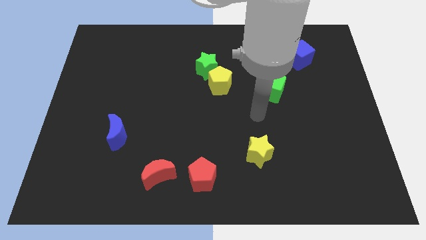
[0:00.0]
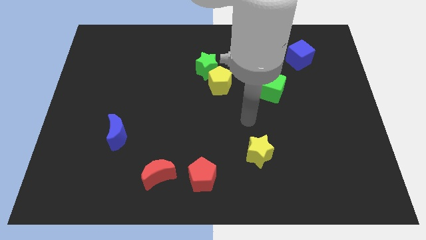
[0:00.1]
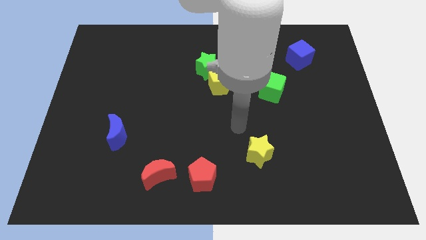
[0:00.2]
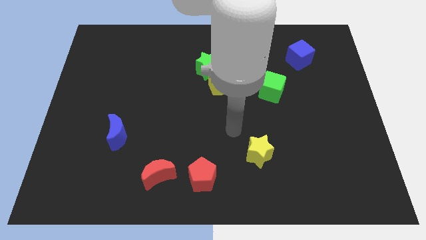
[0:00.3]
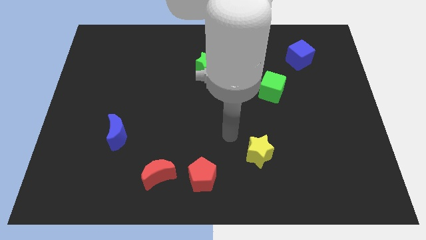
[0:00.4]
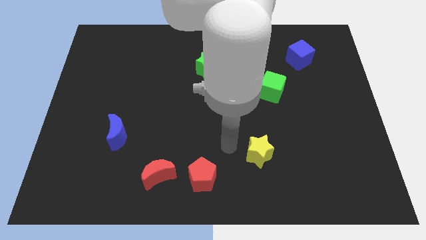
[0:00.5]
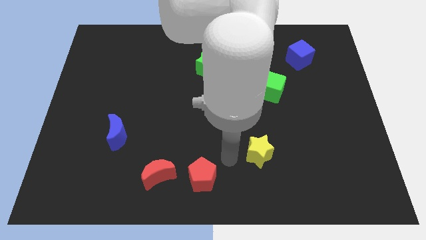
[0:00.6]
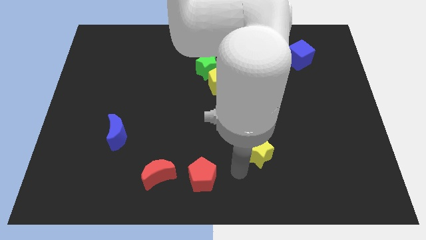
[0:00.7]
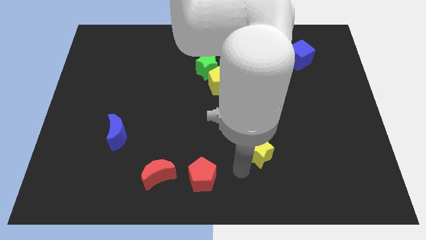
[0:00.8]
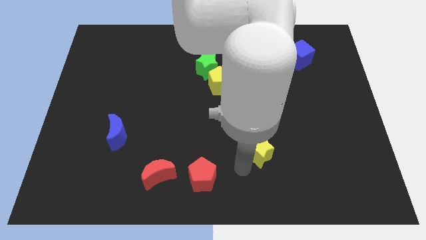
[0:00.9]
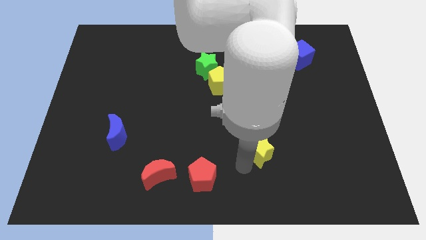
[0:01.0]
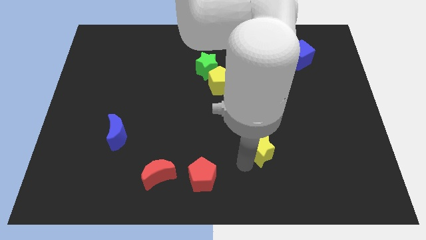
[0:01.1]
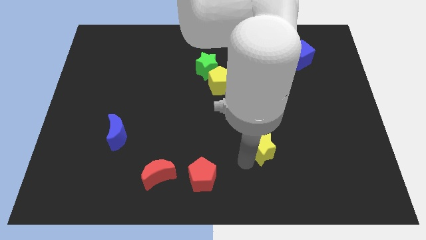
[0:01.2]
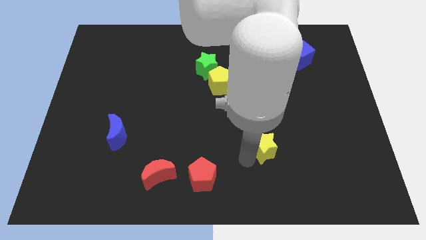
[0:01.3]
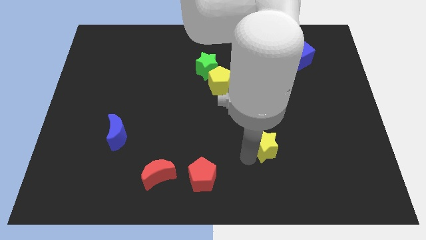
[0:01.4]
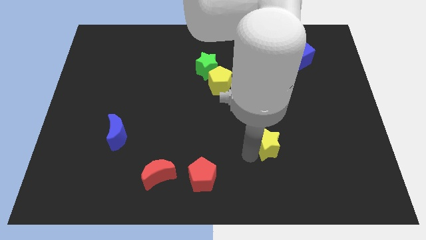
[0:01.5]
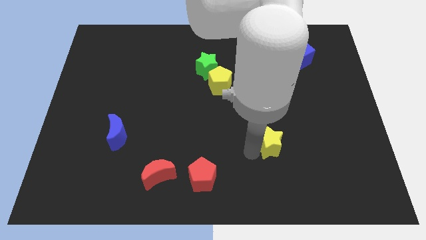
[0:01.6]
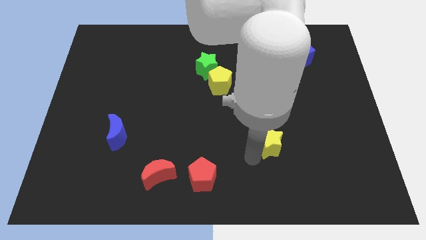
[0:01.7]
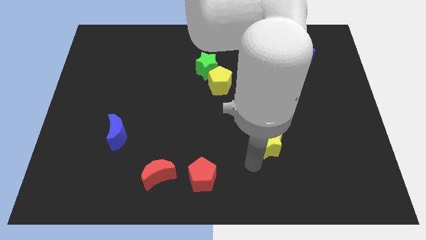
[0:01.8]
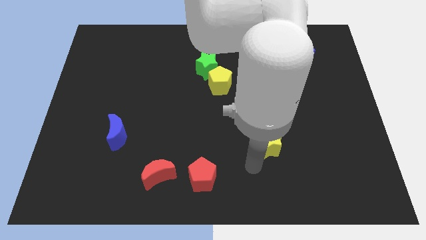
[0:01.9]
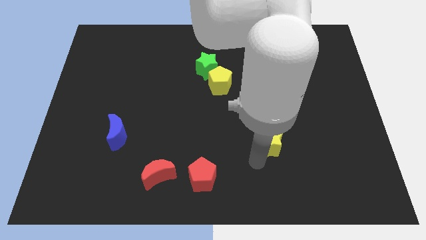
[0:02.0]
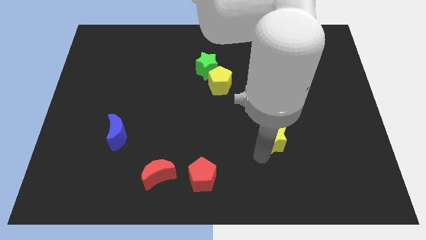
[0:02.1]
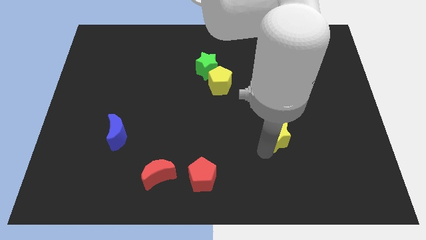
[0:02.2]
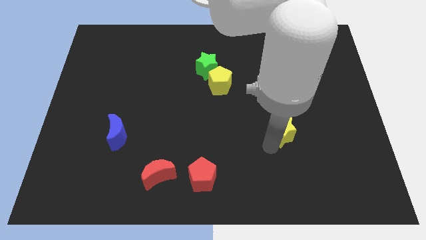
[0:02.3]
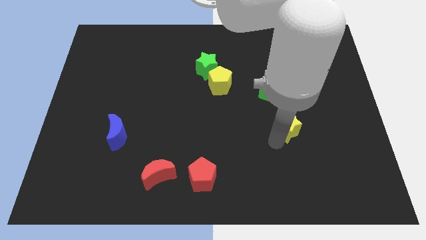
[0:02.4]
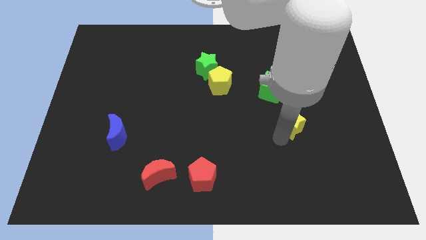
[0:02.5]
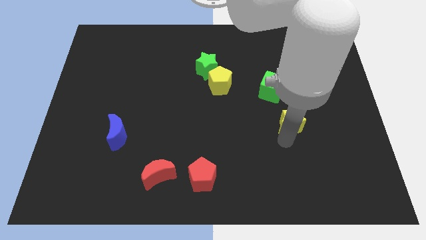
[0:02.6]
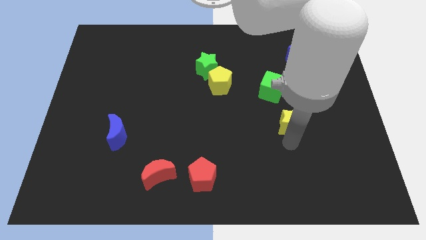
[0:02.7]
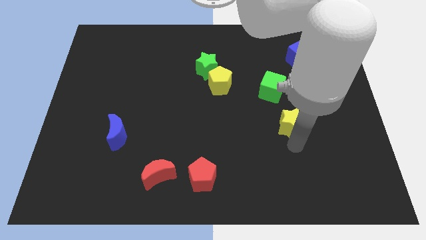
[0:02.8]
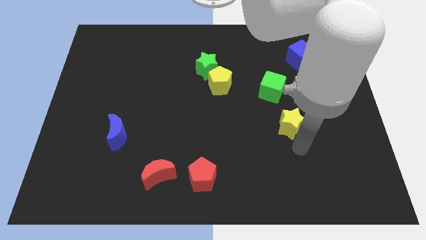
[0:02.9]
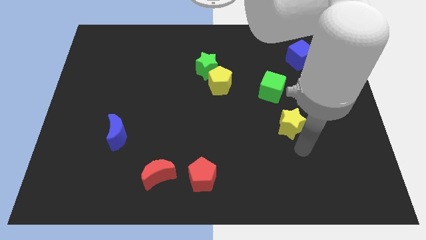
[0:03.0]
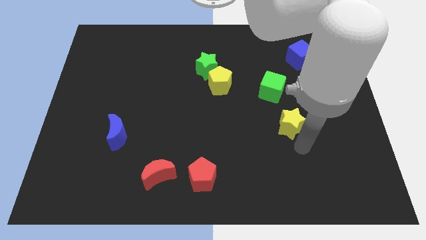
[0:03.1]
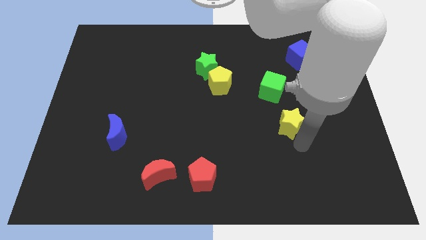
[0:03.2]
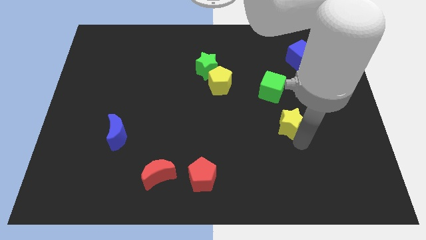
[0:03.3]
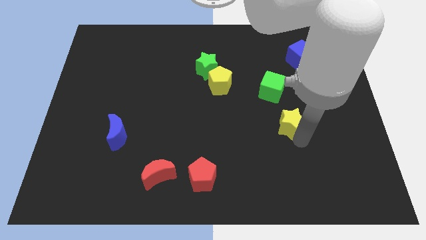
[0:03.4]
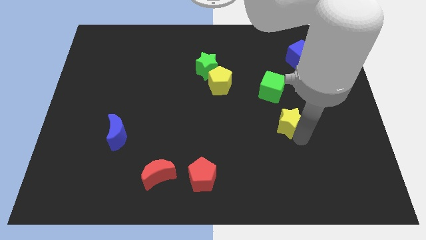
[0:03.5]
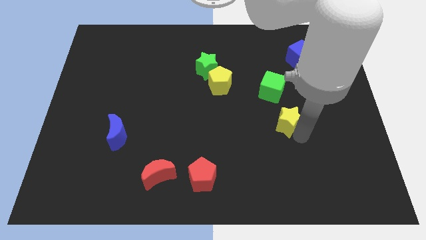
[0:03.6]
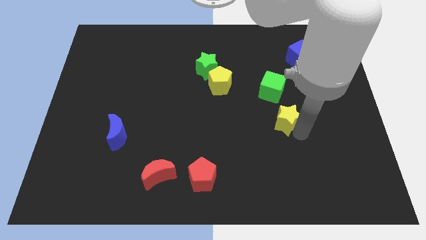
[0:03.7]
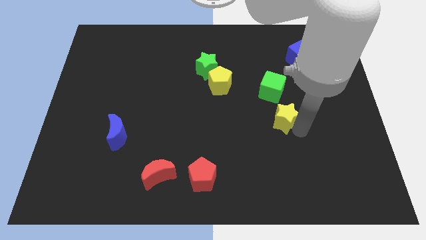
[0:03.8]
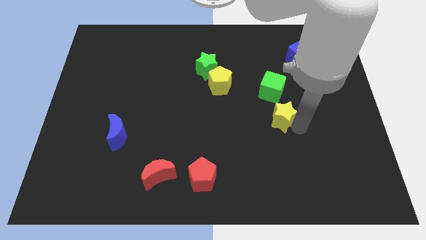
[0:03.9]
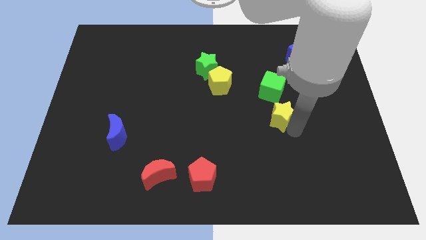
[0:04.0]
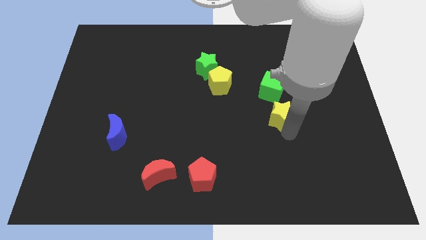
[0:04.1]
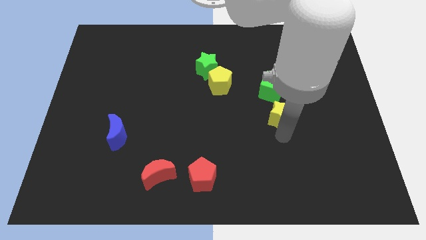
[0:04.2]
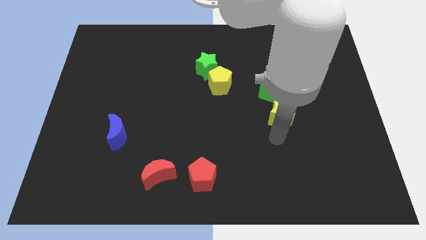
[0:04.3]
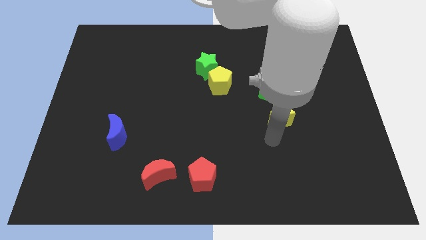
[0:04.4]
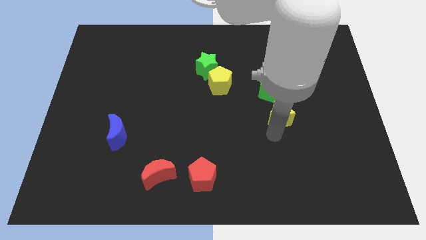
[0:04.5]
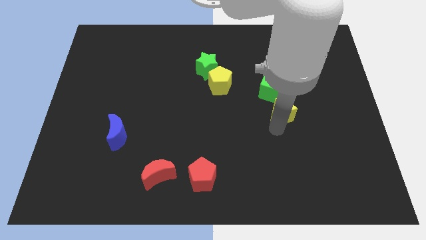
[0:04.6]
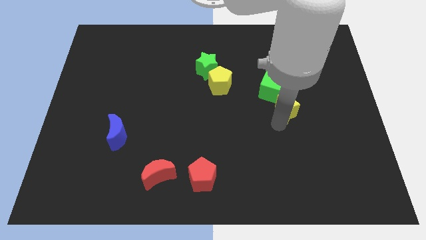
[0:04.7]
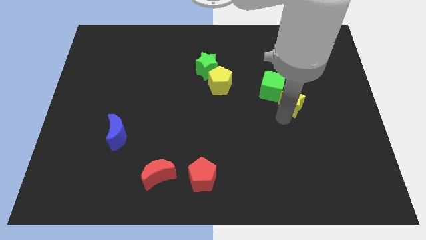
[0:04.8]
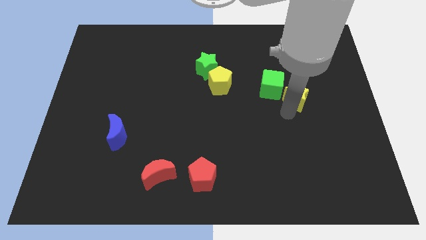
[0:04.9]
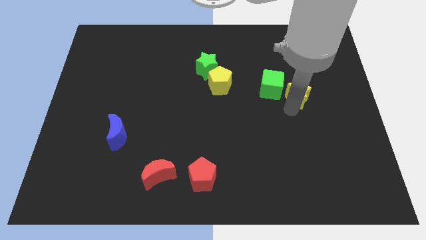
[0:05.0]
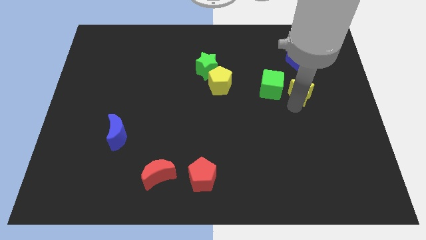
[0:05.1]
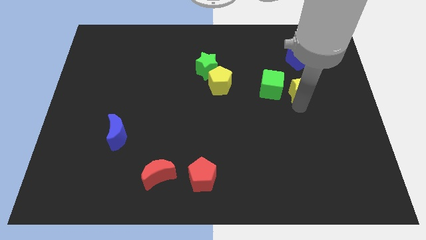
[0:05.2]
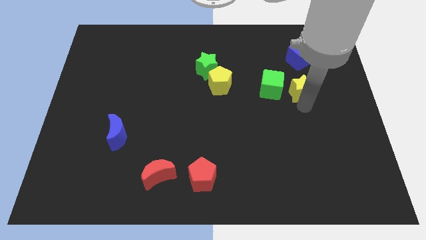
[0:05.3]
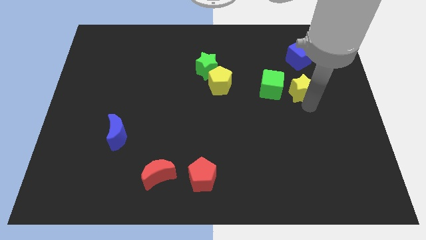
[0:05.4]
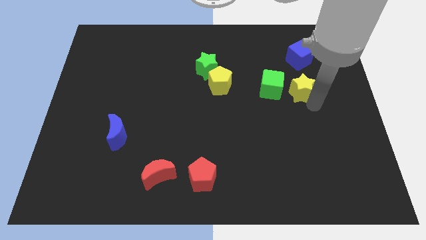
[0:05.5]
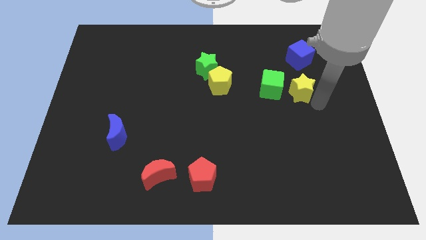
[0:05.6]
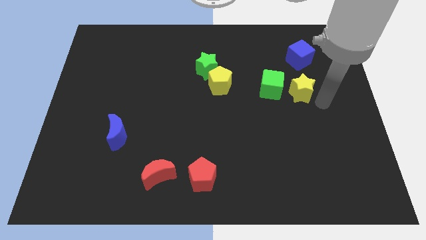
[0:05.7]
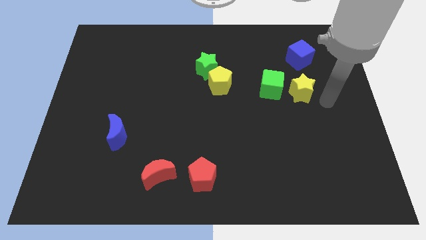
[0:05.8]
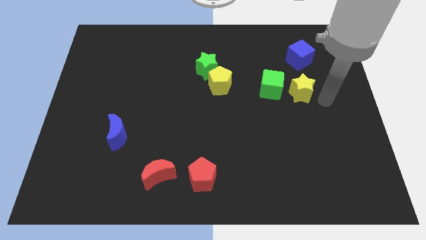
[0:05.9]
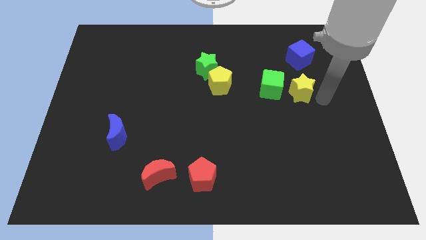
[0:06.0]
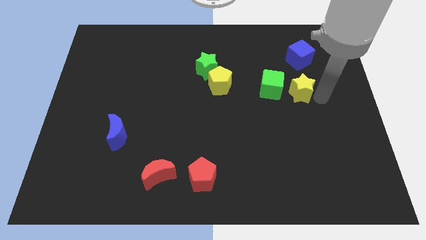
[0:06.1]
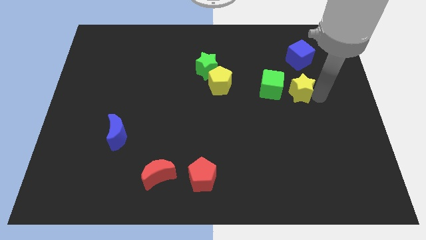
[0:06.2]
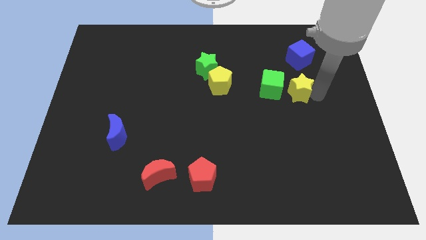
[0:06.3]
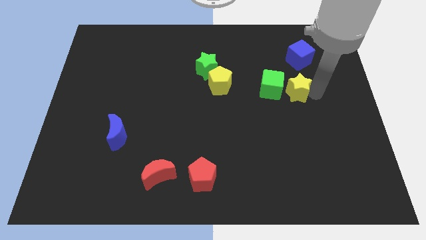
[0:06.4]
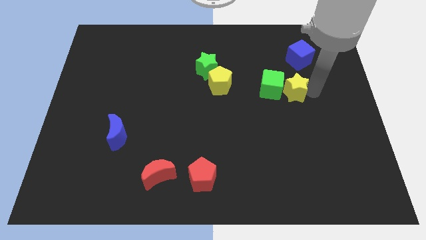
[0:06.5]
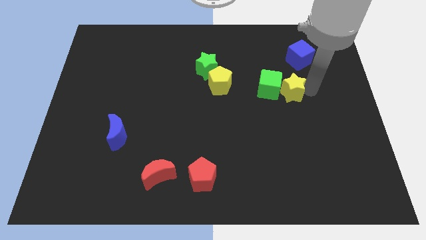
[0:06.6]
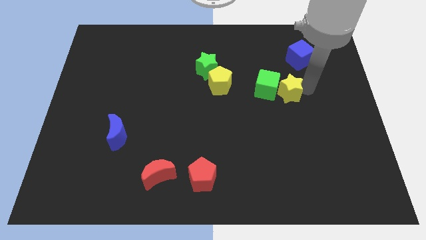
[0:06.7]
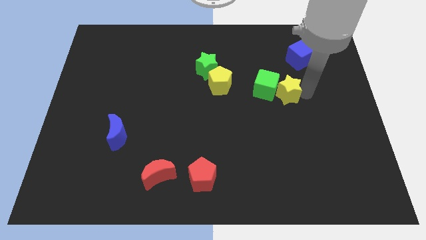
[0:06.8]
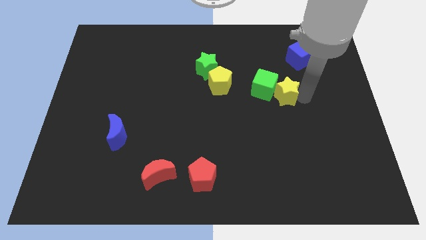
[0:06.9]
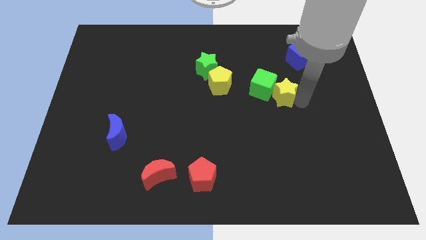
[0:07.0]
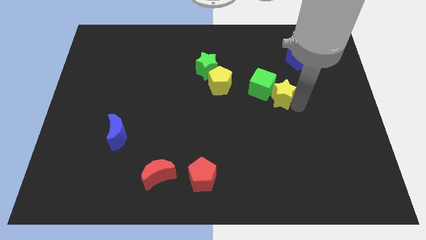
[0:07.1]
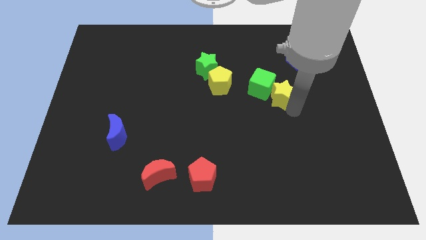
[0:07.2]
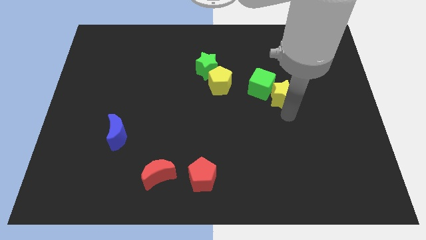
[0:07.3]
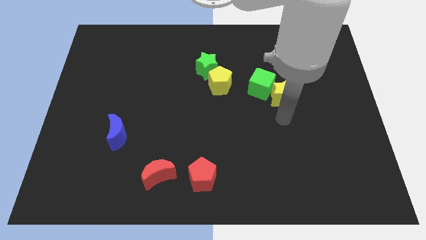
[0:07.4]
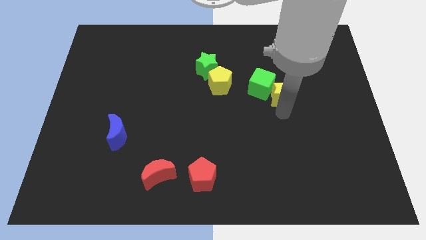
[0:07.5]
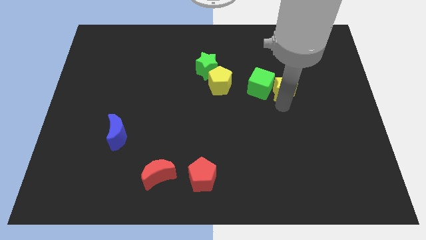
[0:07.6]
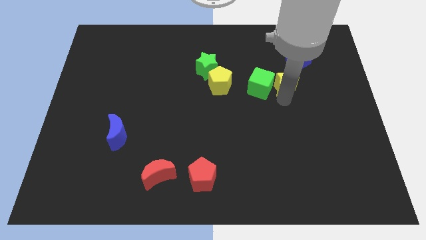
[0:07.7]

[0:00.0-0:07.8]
put the yellow star diagonally down and to the left of the blue cube
